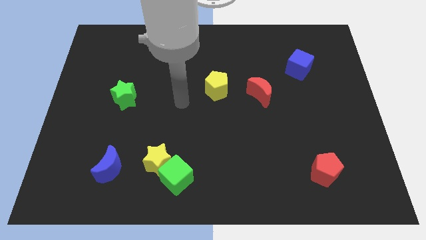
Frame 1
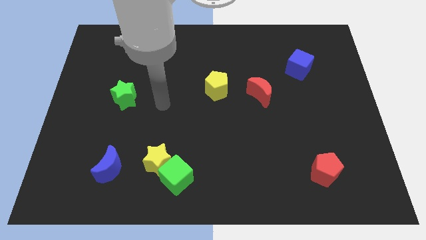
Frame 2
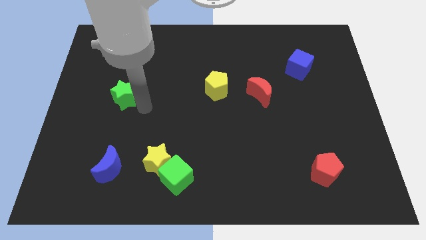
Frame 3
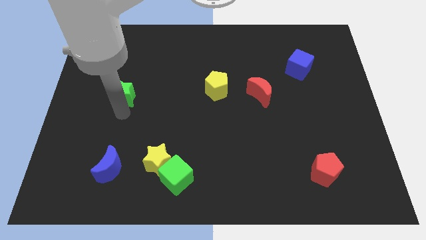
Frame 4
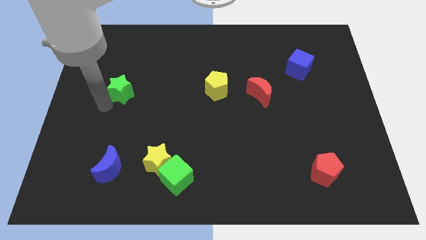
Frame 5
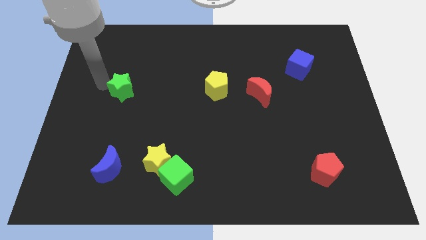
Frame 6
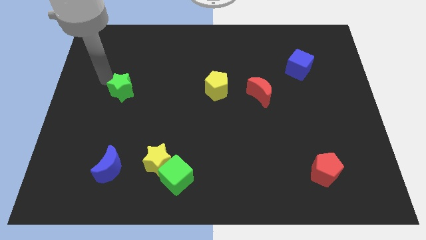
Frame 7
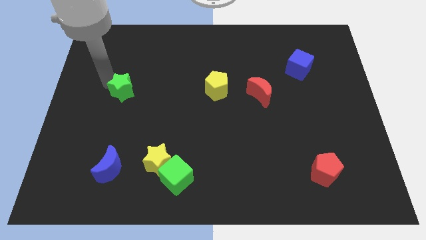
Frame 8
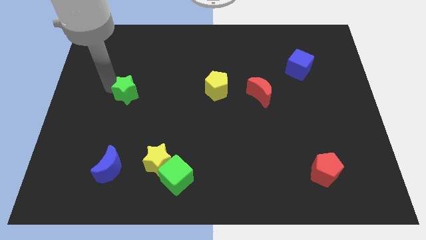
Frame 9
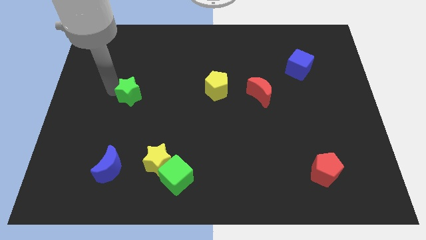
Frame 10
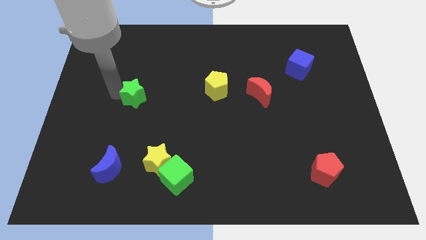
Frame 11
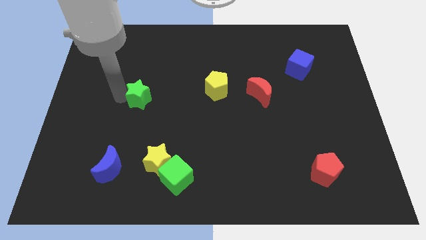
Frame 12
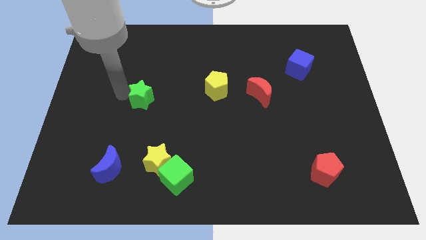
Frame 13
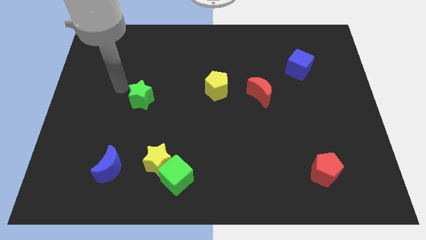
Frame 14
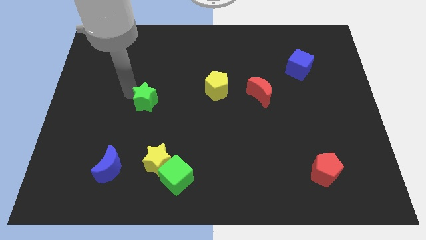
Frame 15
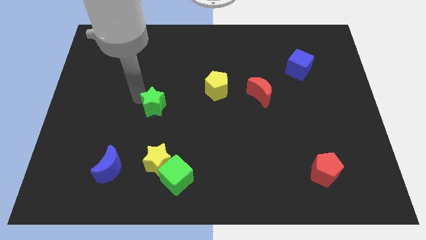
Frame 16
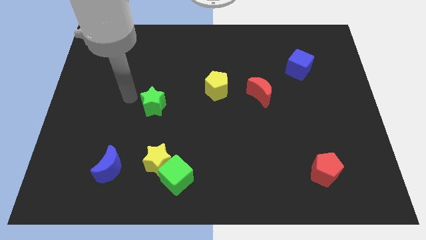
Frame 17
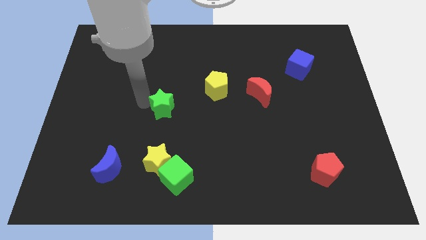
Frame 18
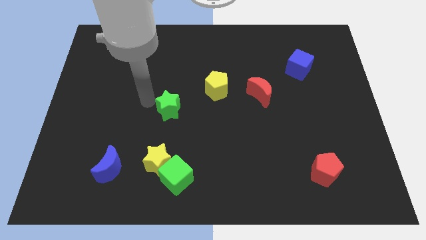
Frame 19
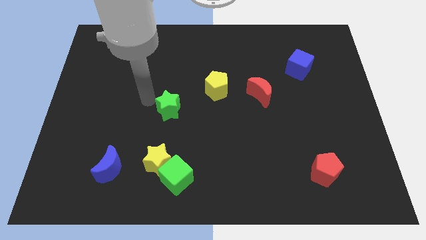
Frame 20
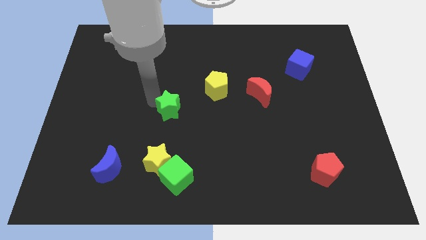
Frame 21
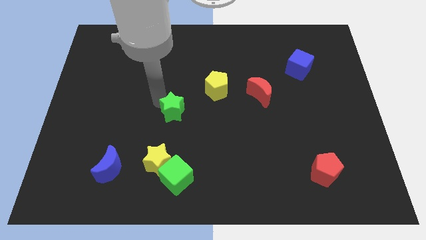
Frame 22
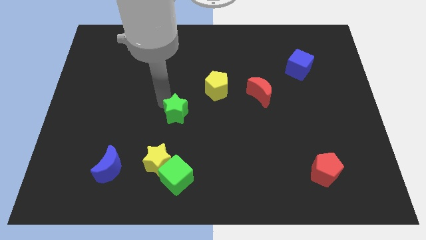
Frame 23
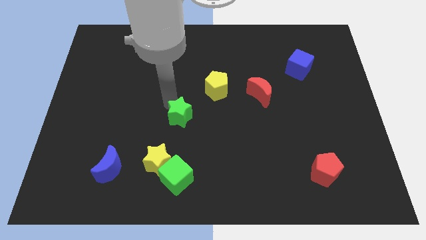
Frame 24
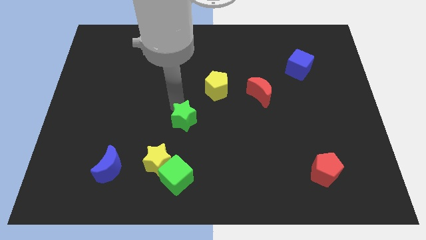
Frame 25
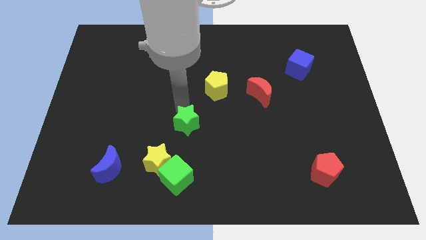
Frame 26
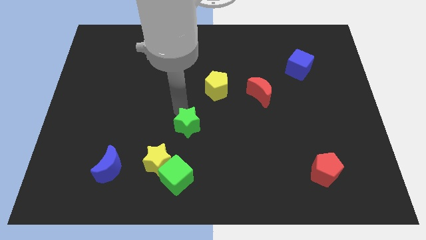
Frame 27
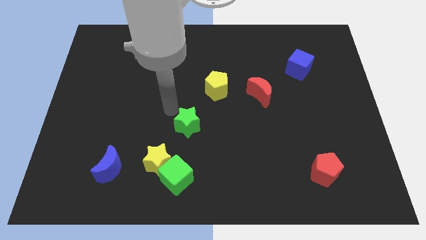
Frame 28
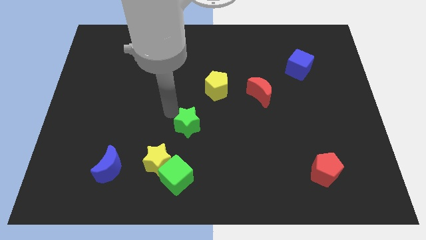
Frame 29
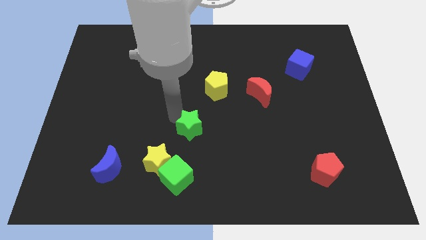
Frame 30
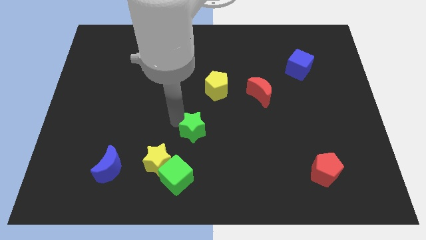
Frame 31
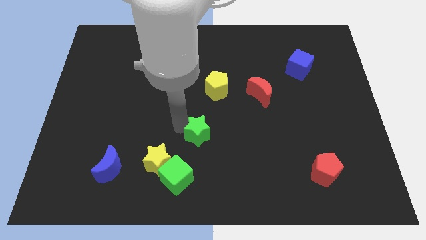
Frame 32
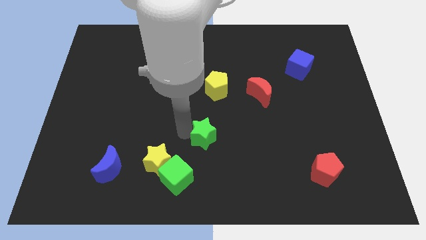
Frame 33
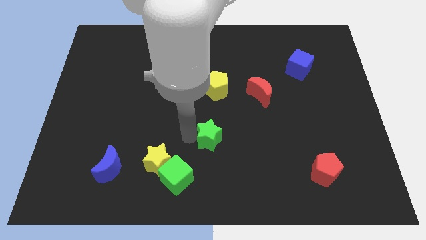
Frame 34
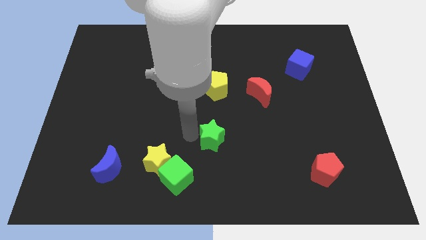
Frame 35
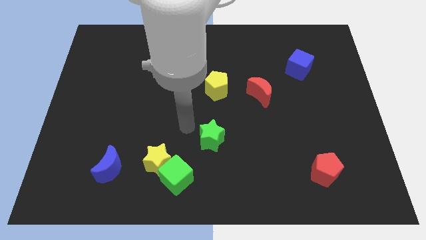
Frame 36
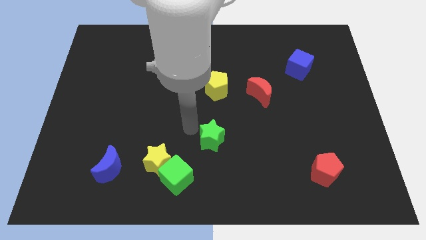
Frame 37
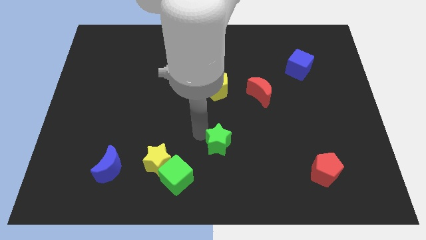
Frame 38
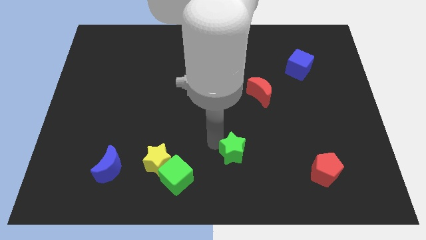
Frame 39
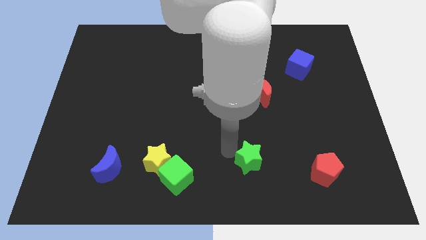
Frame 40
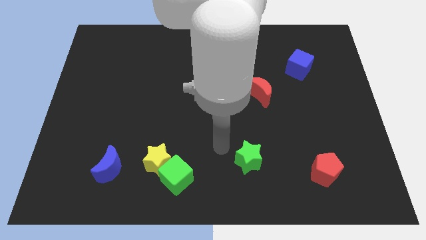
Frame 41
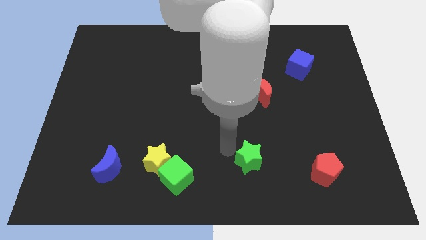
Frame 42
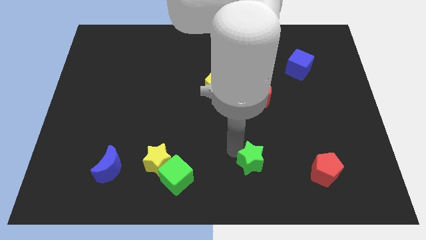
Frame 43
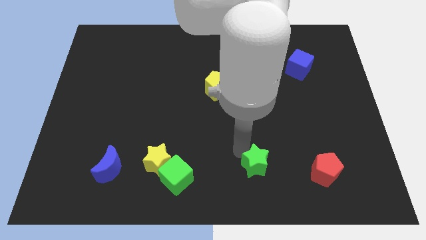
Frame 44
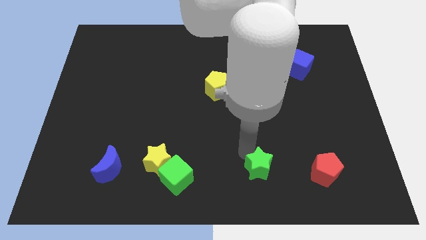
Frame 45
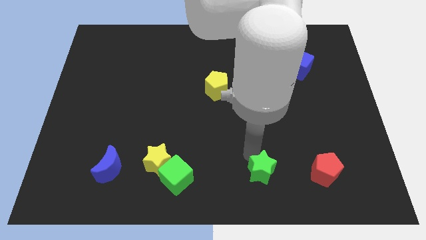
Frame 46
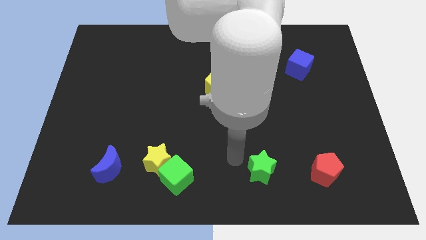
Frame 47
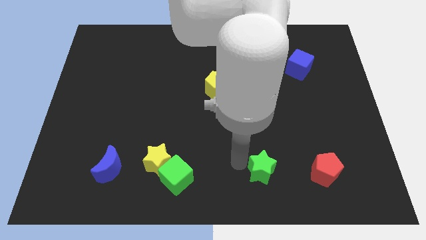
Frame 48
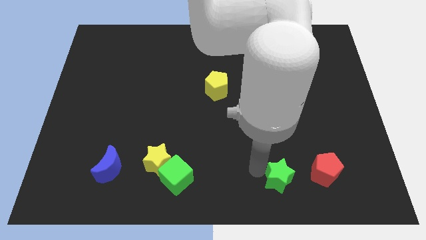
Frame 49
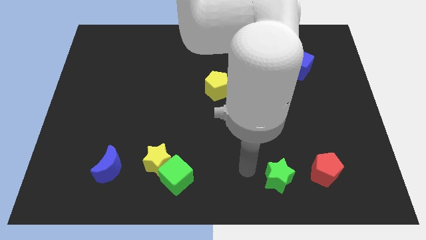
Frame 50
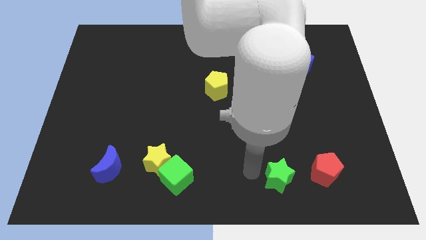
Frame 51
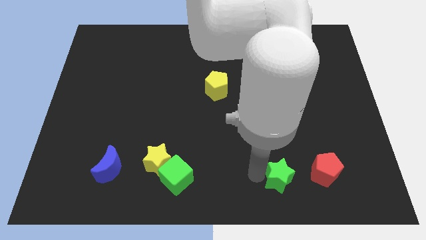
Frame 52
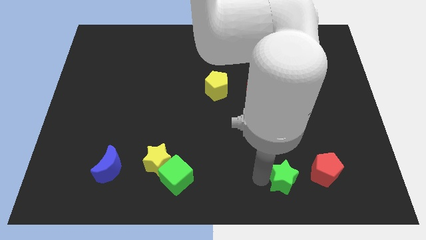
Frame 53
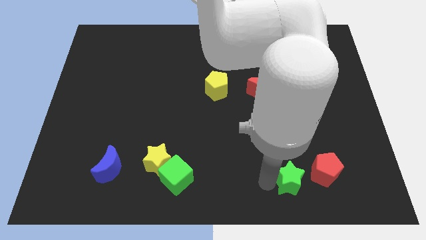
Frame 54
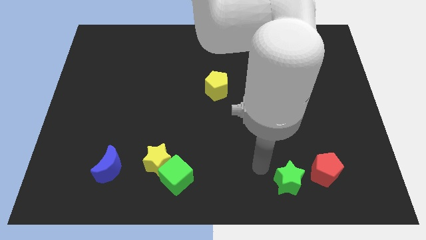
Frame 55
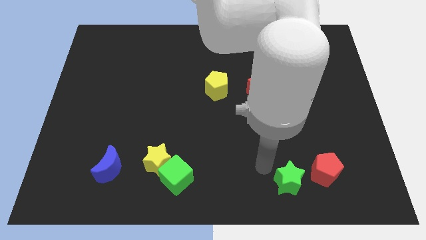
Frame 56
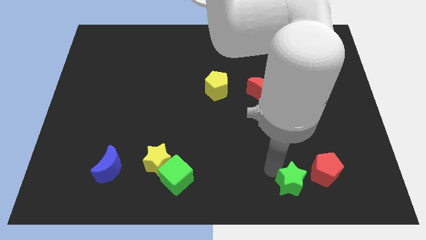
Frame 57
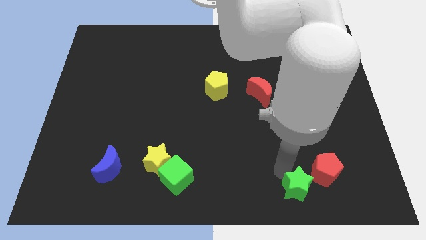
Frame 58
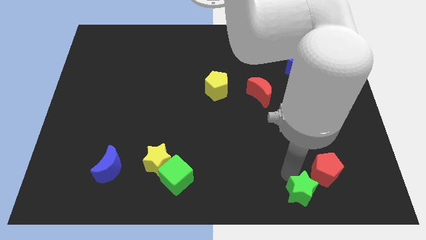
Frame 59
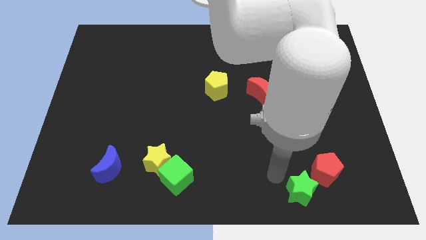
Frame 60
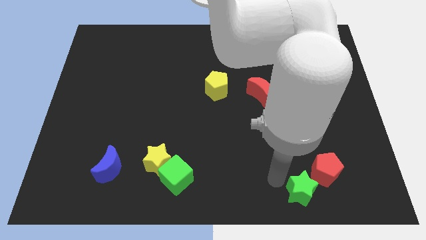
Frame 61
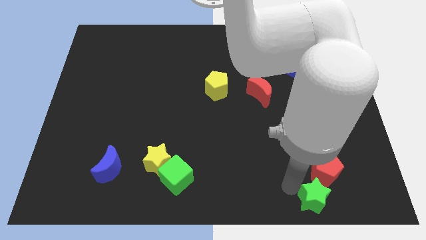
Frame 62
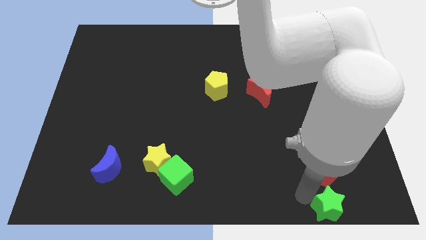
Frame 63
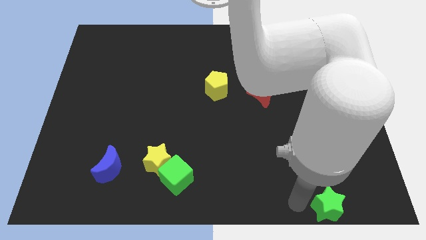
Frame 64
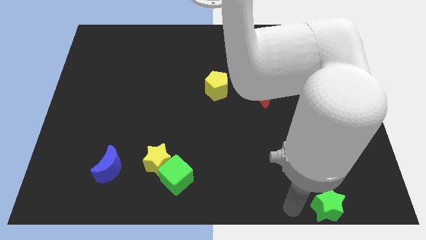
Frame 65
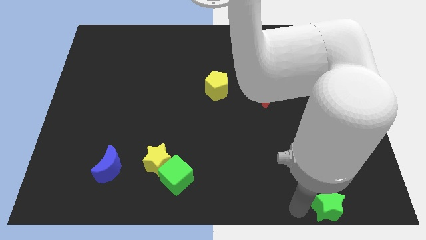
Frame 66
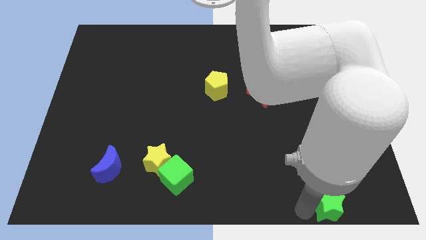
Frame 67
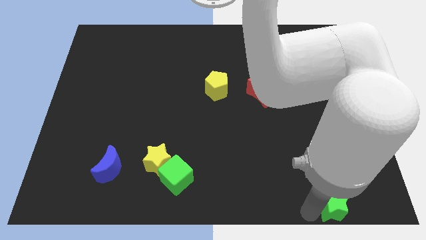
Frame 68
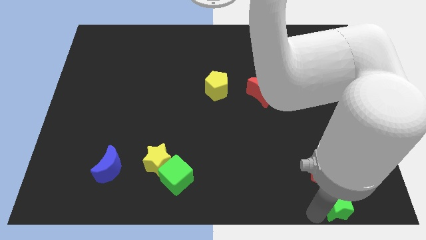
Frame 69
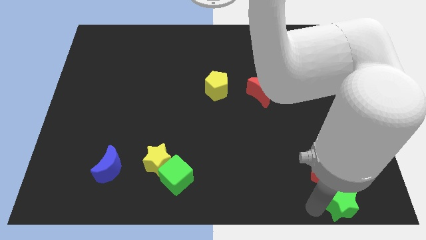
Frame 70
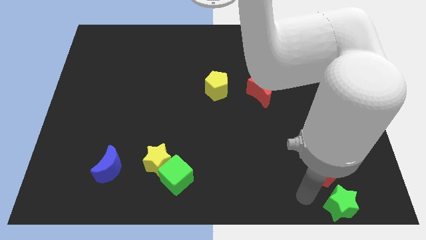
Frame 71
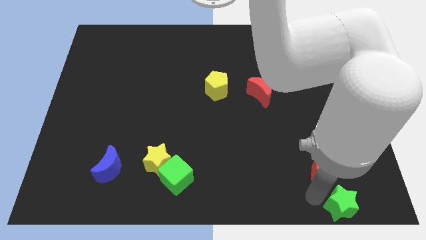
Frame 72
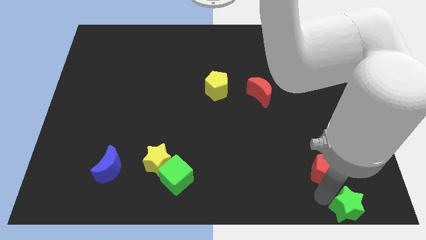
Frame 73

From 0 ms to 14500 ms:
push the green star to the bottom right corner

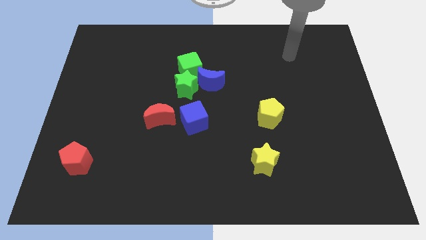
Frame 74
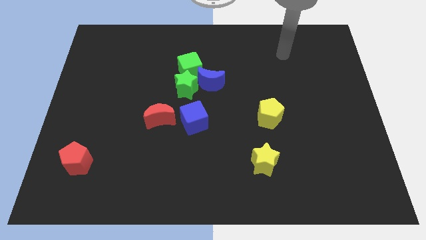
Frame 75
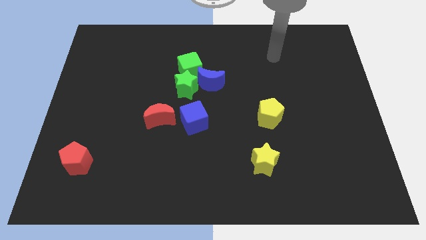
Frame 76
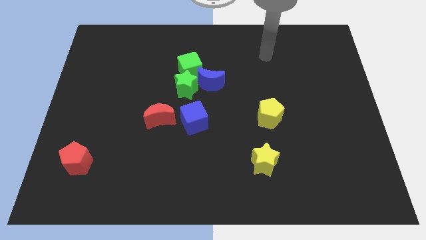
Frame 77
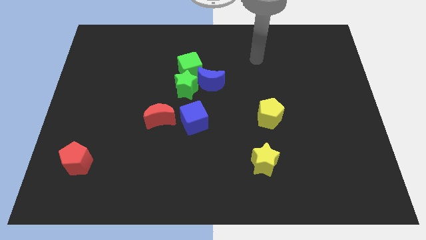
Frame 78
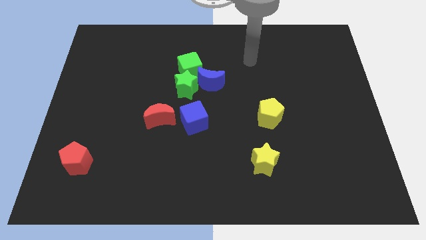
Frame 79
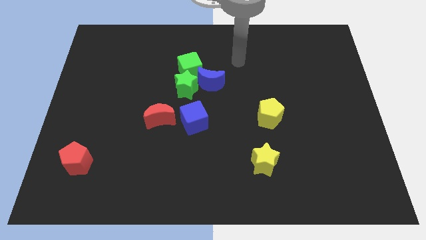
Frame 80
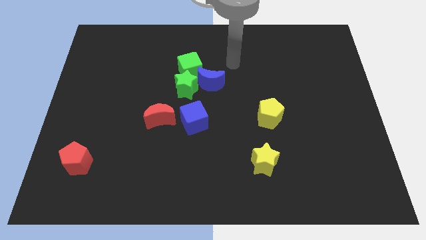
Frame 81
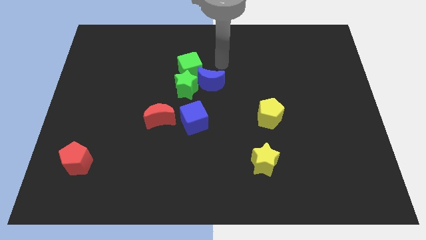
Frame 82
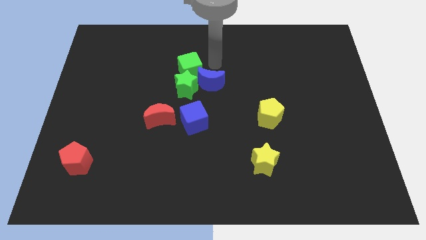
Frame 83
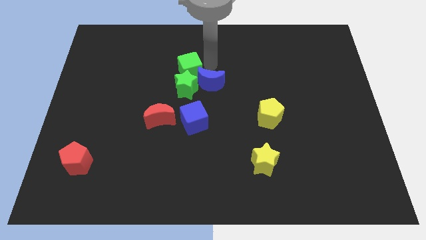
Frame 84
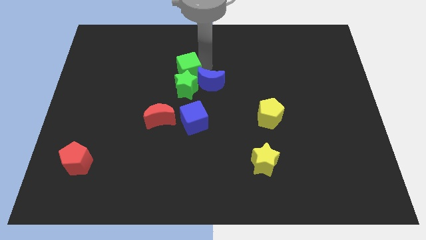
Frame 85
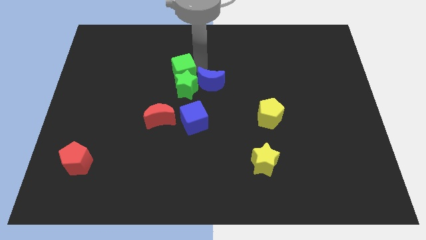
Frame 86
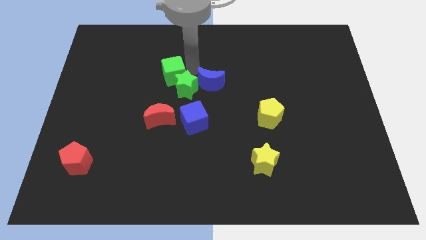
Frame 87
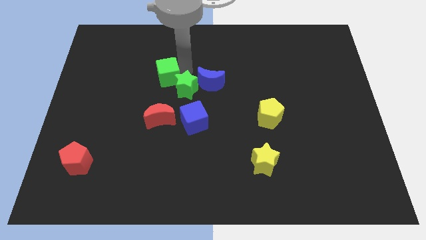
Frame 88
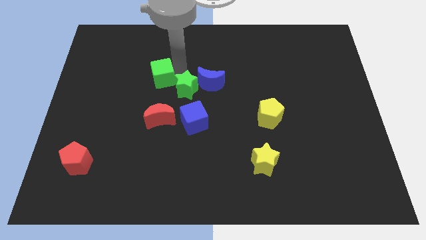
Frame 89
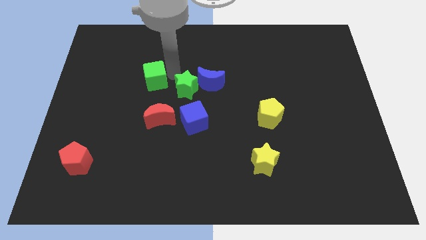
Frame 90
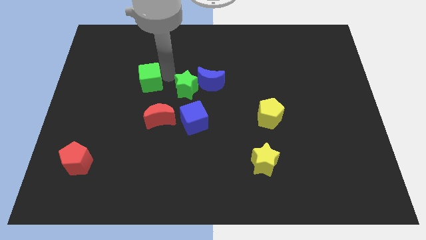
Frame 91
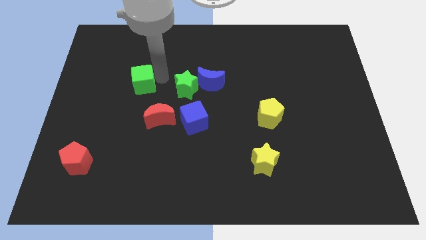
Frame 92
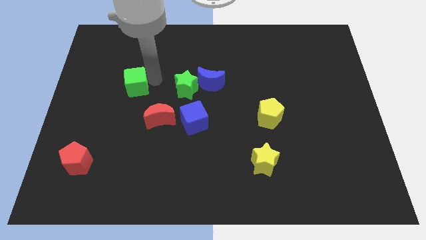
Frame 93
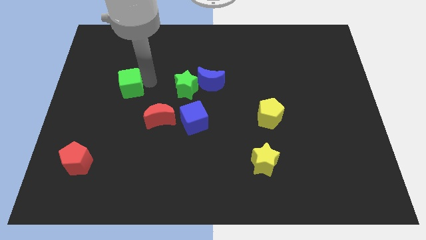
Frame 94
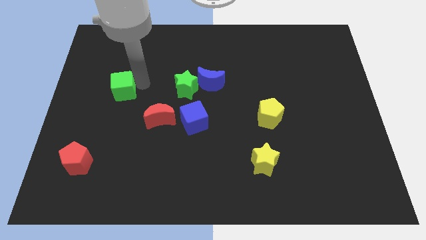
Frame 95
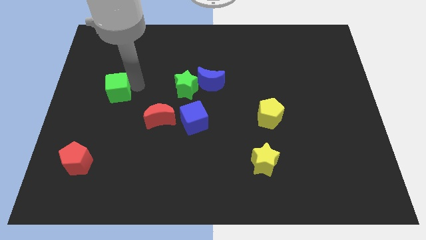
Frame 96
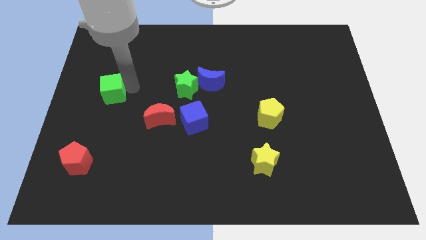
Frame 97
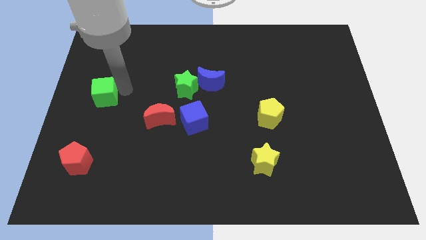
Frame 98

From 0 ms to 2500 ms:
slide the green cube to the left side of the board
